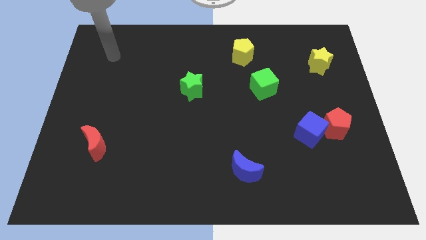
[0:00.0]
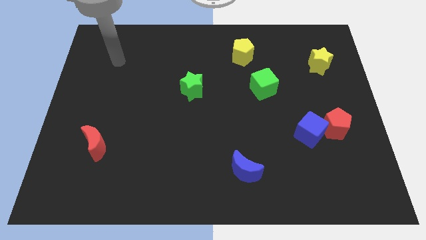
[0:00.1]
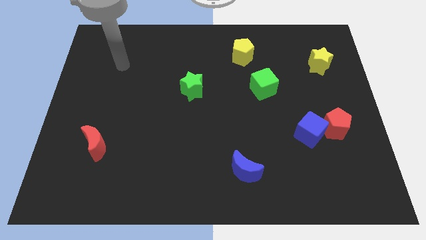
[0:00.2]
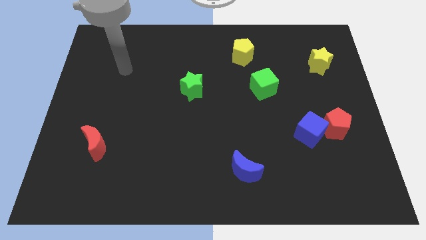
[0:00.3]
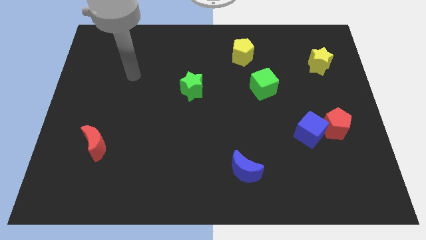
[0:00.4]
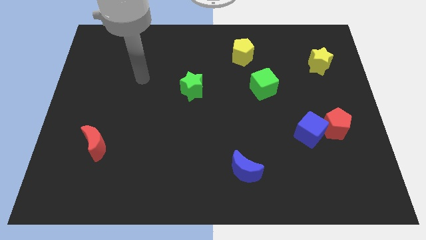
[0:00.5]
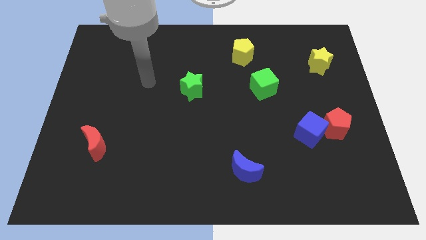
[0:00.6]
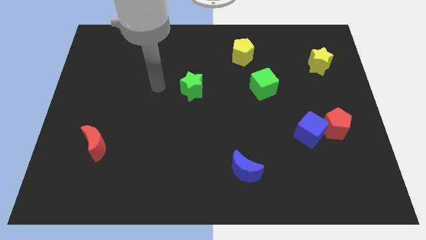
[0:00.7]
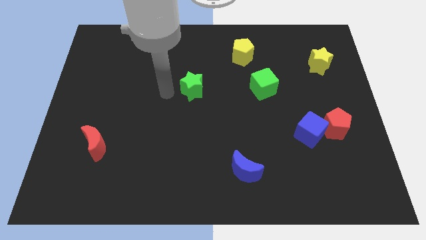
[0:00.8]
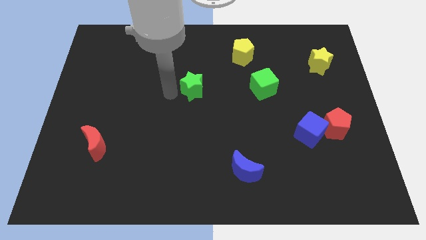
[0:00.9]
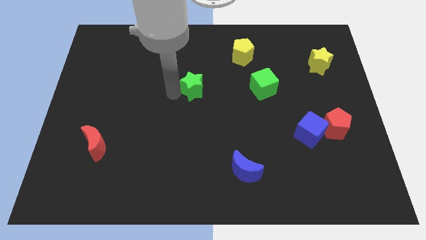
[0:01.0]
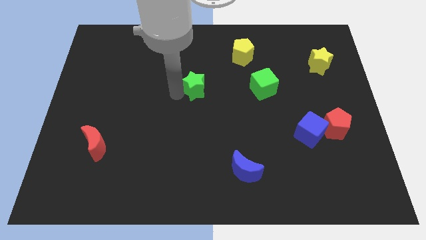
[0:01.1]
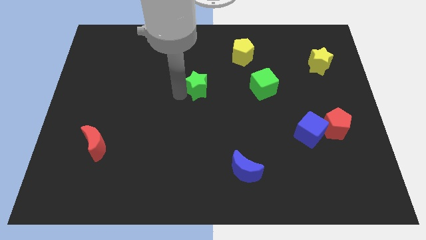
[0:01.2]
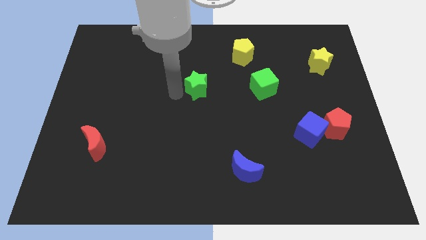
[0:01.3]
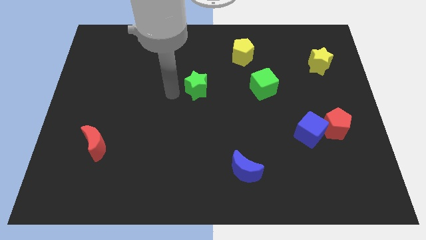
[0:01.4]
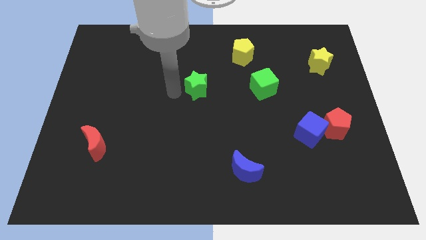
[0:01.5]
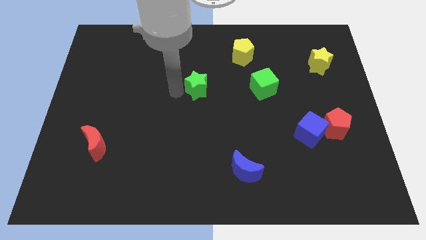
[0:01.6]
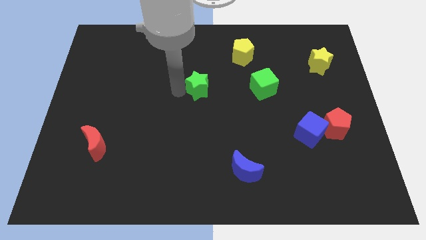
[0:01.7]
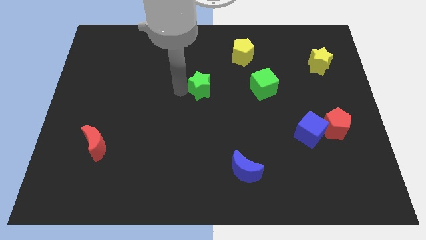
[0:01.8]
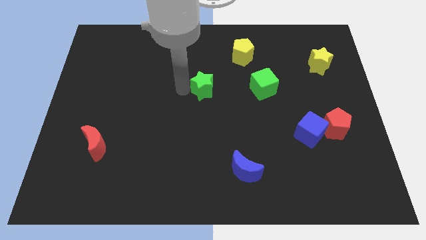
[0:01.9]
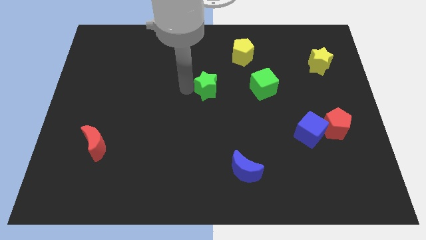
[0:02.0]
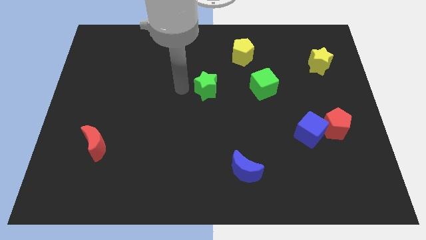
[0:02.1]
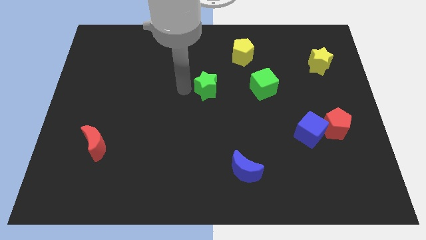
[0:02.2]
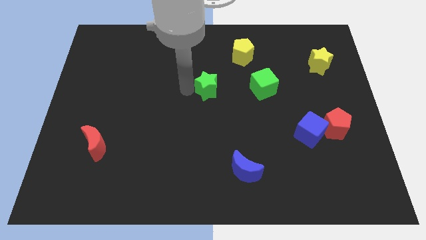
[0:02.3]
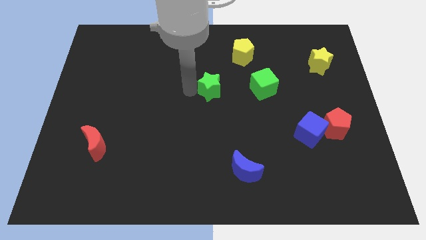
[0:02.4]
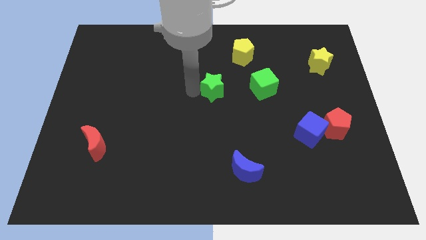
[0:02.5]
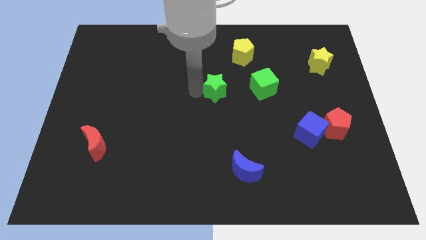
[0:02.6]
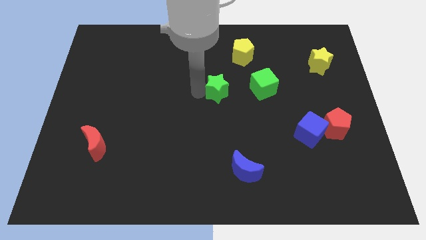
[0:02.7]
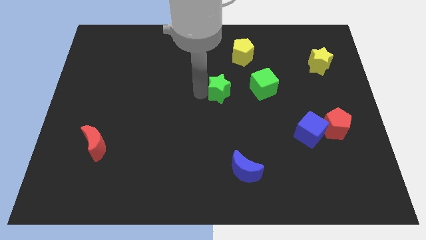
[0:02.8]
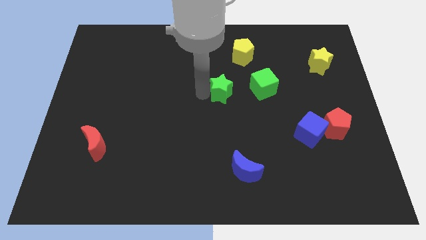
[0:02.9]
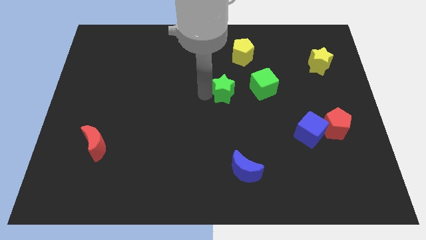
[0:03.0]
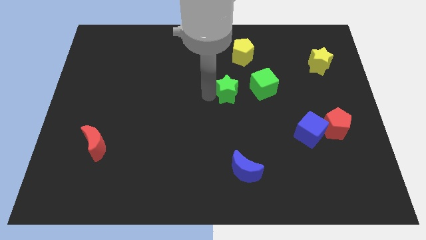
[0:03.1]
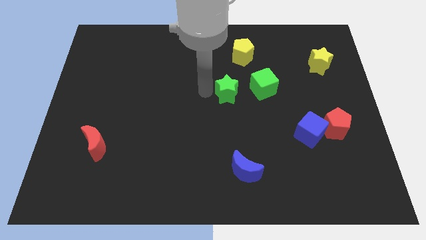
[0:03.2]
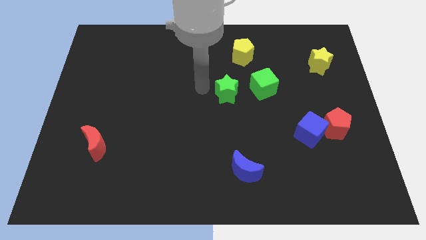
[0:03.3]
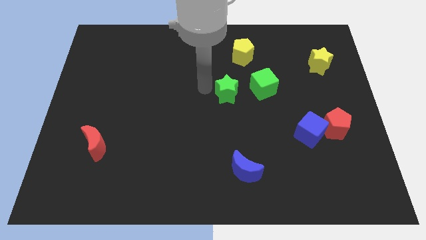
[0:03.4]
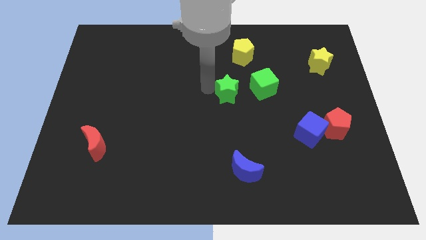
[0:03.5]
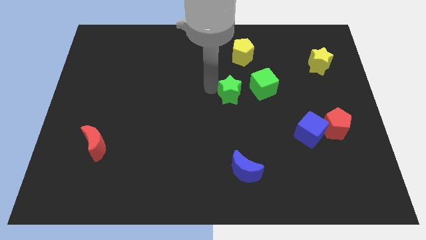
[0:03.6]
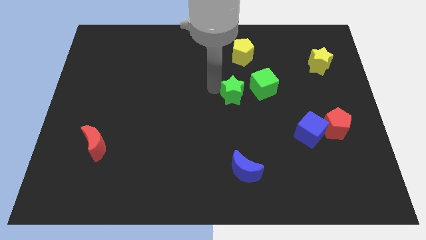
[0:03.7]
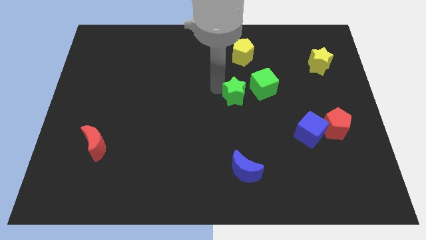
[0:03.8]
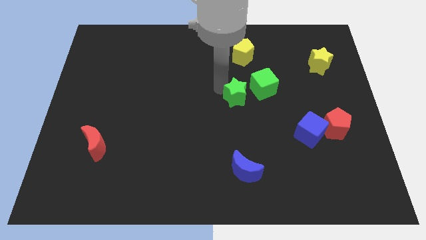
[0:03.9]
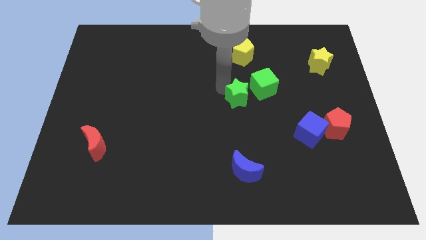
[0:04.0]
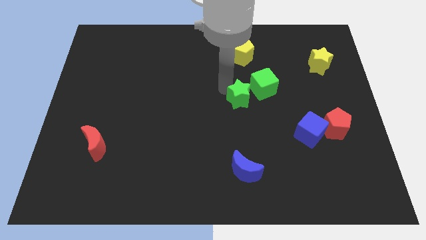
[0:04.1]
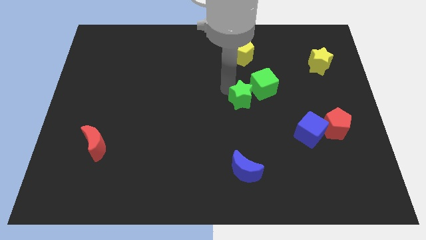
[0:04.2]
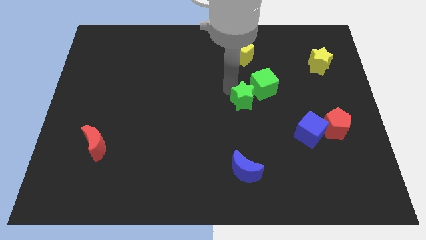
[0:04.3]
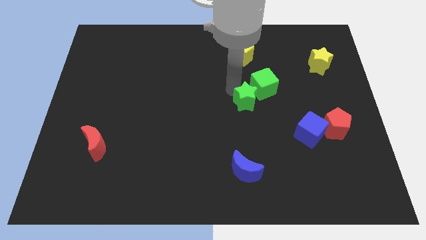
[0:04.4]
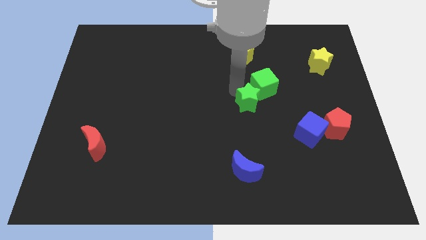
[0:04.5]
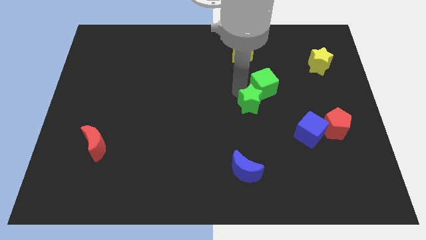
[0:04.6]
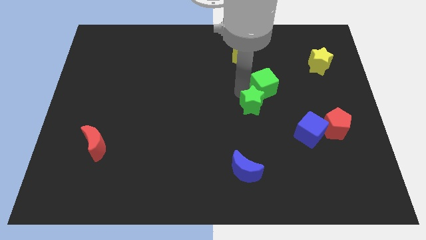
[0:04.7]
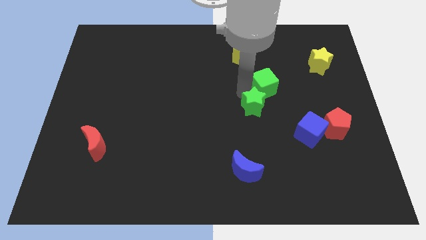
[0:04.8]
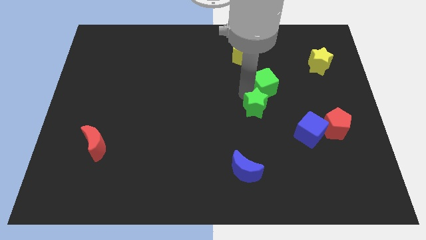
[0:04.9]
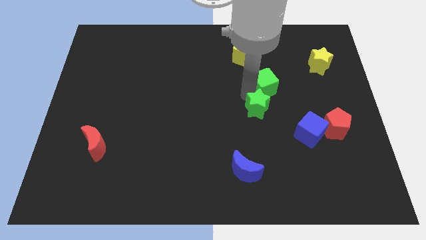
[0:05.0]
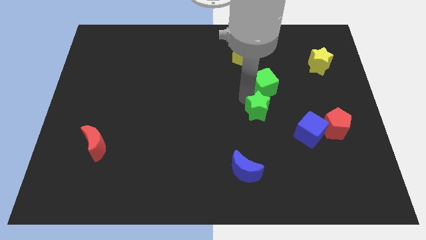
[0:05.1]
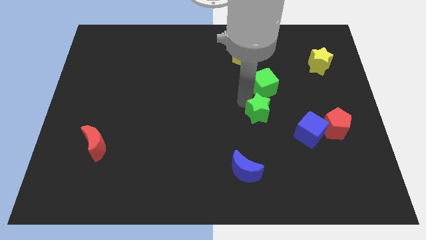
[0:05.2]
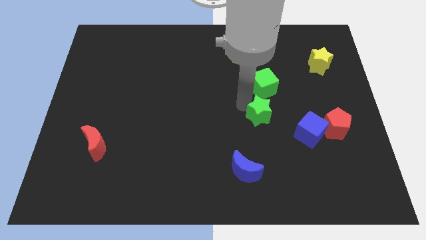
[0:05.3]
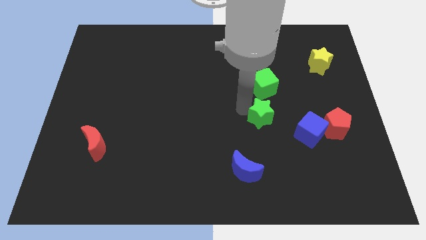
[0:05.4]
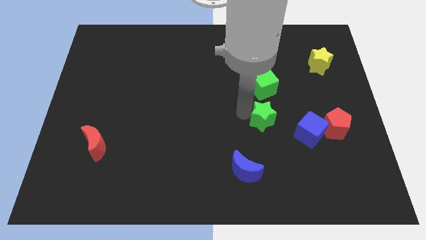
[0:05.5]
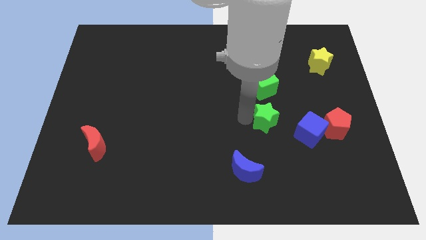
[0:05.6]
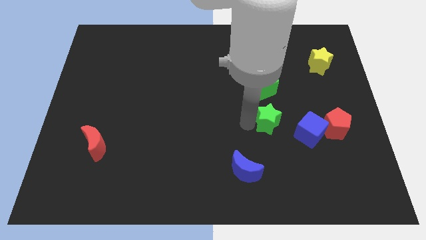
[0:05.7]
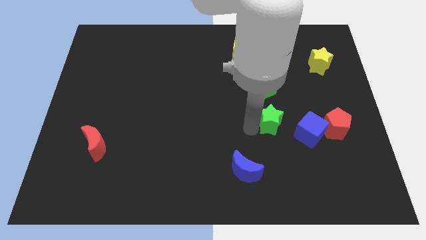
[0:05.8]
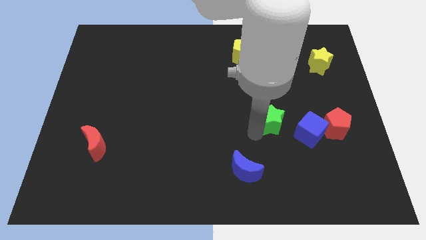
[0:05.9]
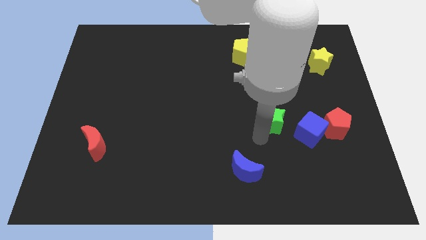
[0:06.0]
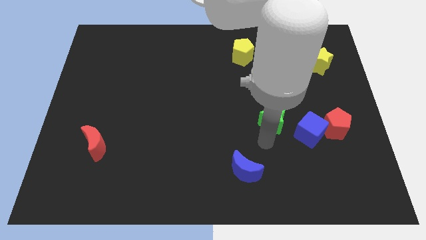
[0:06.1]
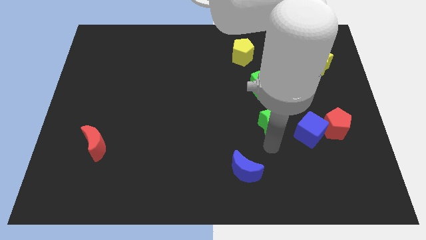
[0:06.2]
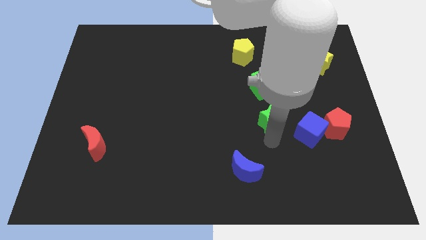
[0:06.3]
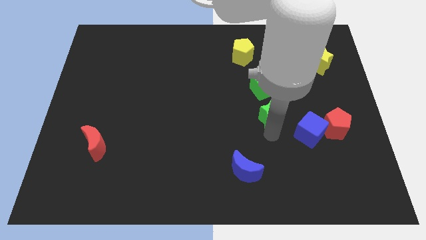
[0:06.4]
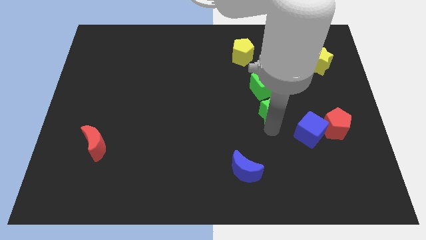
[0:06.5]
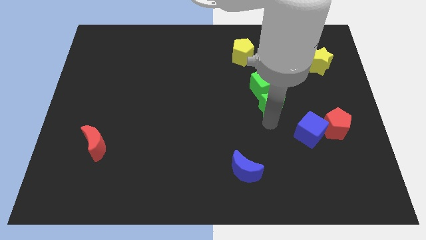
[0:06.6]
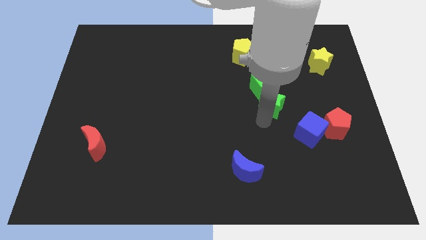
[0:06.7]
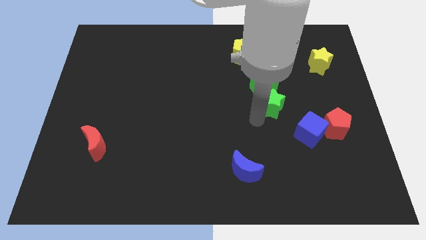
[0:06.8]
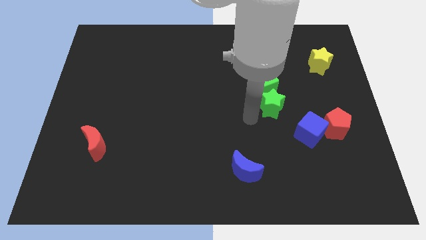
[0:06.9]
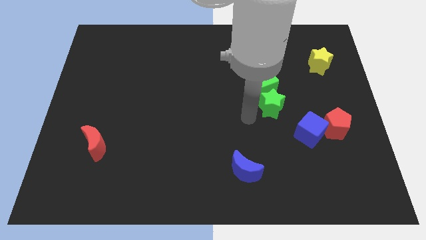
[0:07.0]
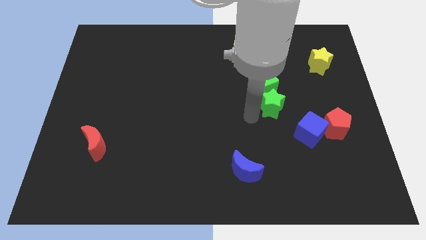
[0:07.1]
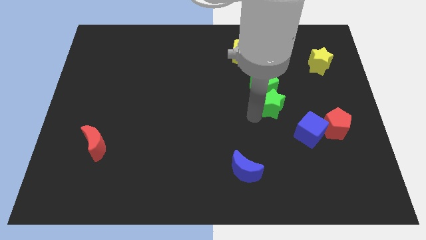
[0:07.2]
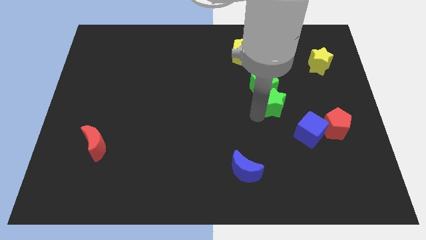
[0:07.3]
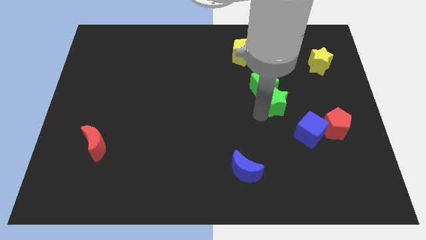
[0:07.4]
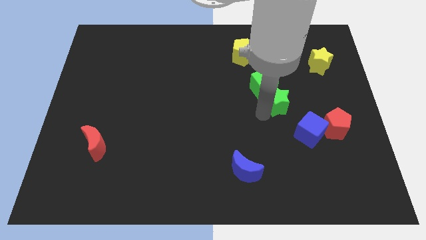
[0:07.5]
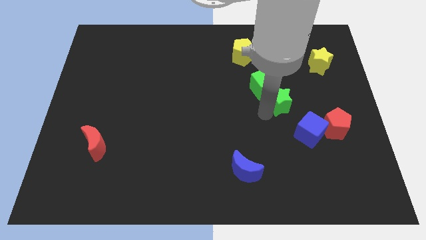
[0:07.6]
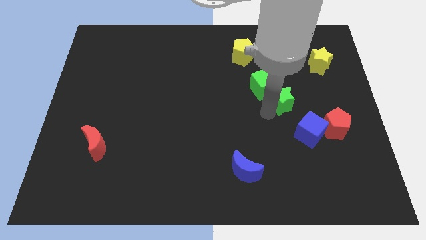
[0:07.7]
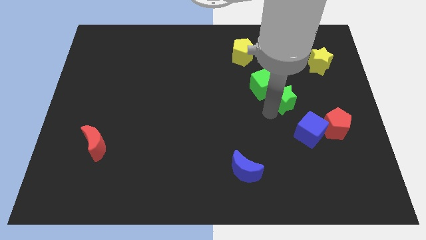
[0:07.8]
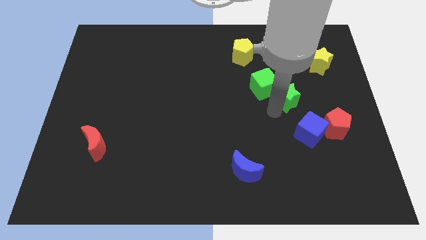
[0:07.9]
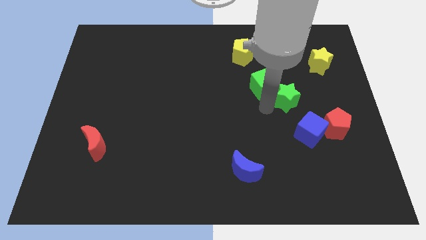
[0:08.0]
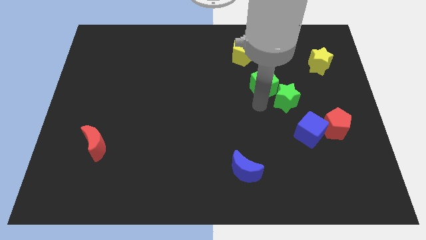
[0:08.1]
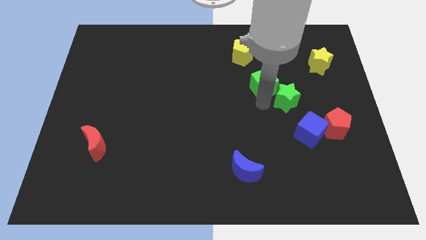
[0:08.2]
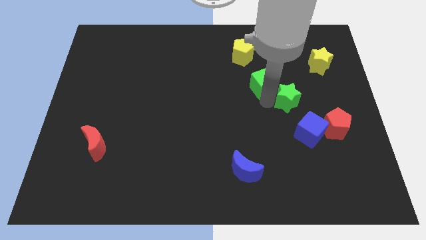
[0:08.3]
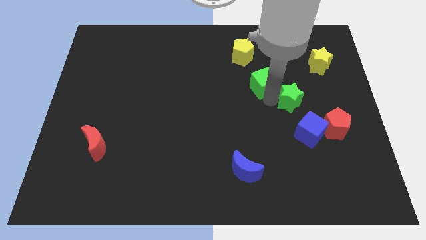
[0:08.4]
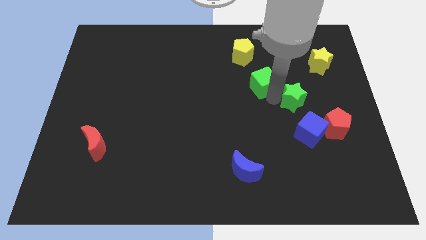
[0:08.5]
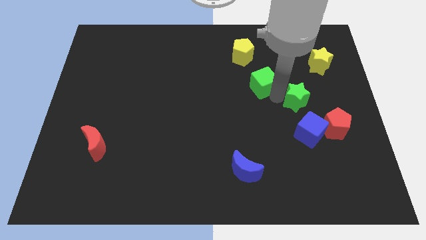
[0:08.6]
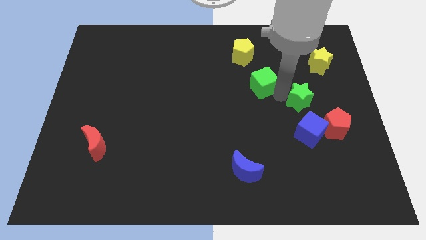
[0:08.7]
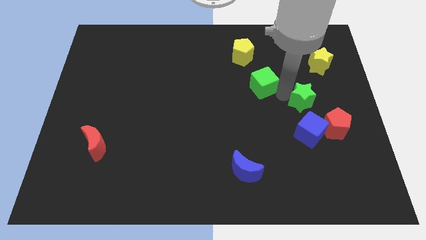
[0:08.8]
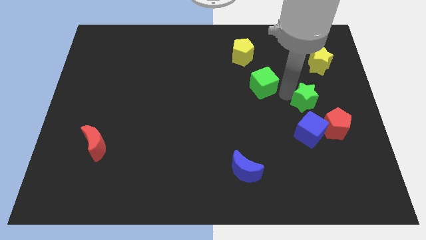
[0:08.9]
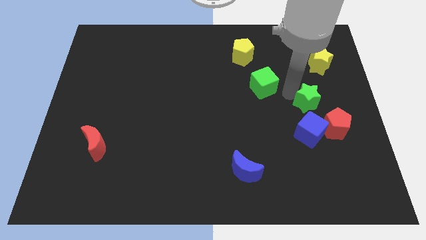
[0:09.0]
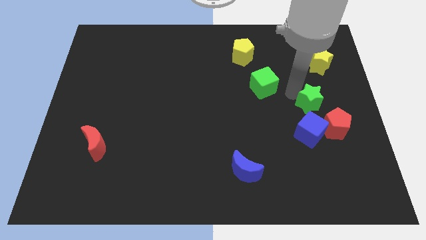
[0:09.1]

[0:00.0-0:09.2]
put the green star above the red pentagon
